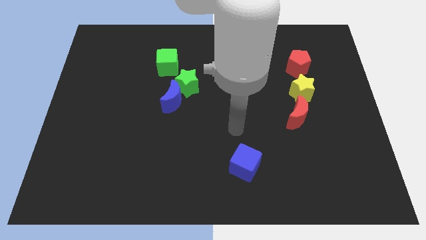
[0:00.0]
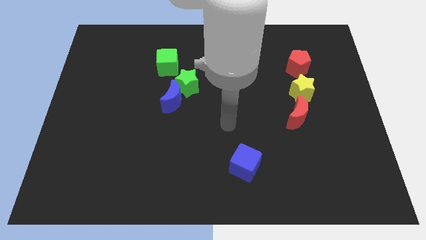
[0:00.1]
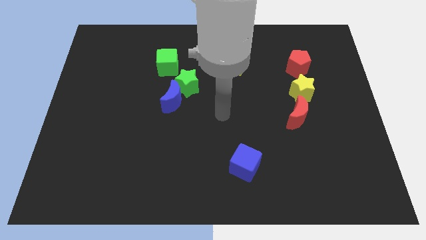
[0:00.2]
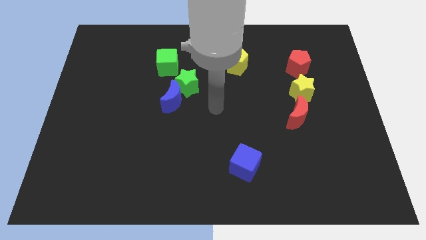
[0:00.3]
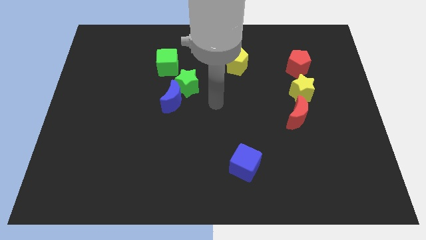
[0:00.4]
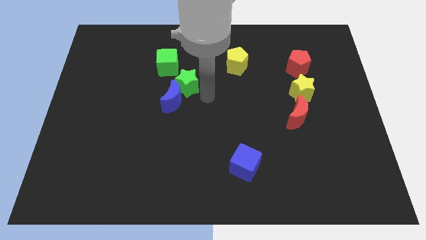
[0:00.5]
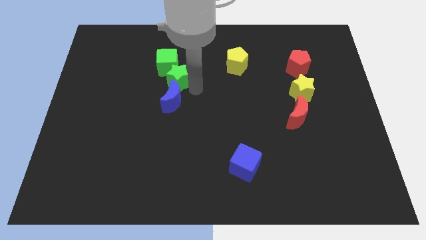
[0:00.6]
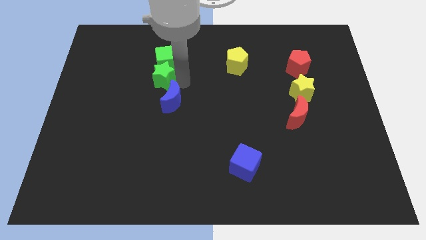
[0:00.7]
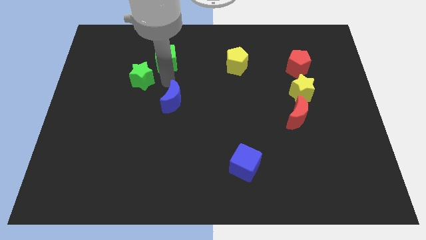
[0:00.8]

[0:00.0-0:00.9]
pull the blue moon apart from the green star

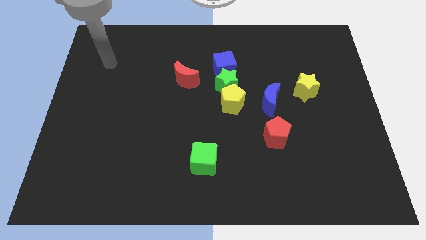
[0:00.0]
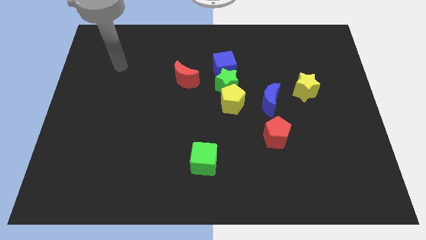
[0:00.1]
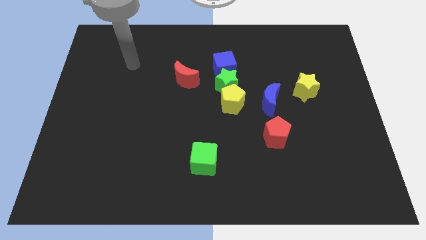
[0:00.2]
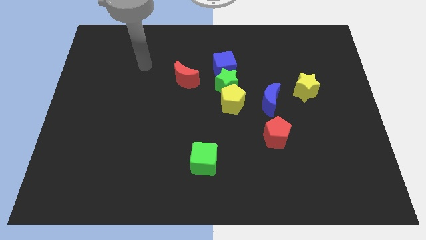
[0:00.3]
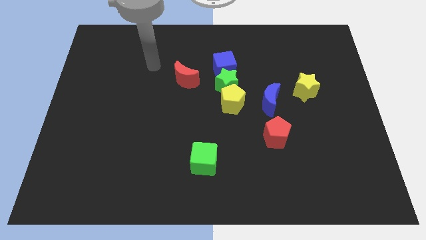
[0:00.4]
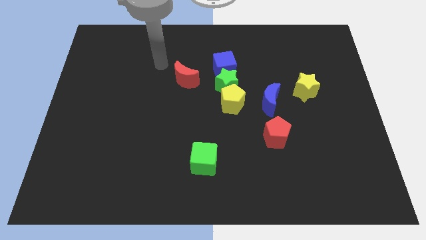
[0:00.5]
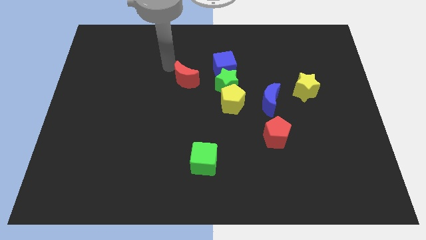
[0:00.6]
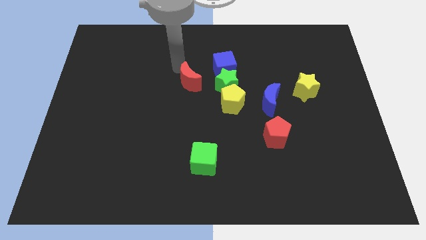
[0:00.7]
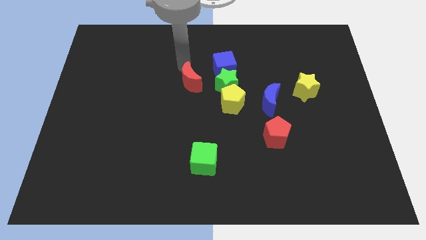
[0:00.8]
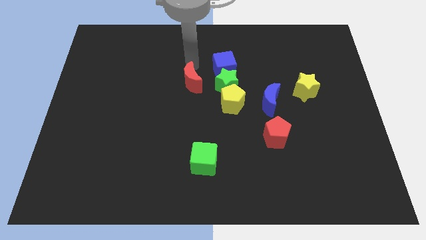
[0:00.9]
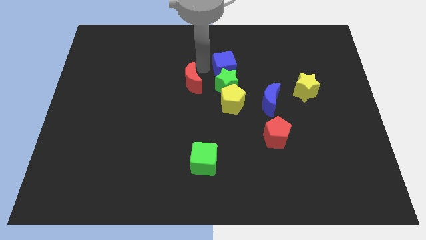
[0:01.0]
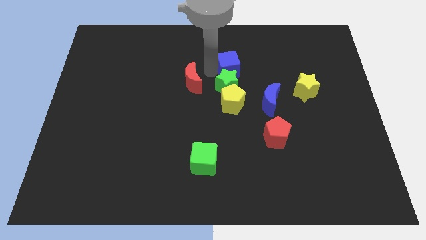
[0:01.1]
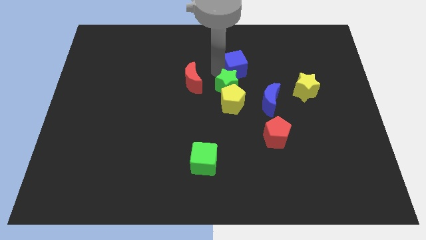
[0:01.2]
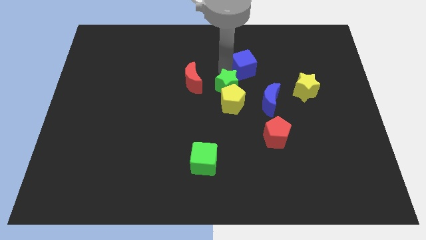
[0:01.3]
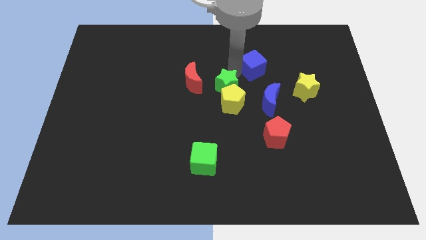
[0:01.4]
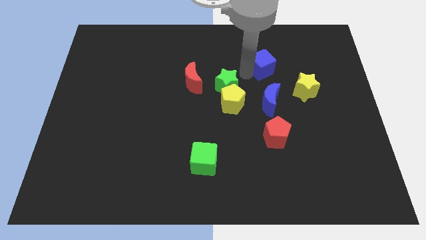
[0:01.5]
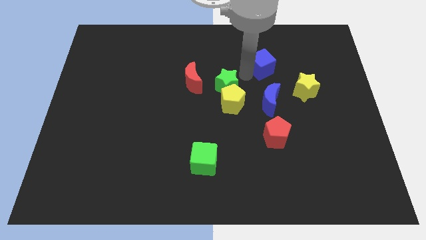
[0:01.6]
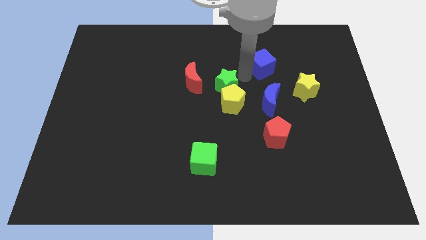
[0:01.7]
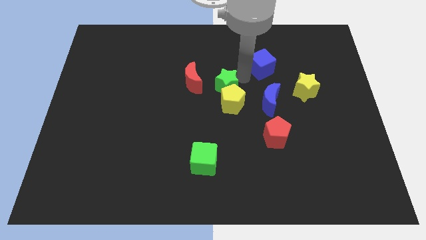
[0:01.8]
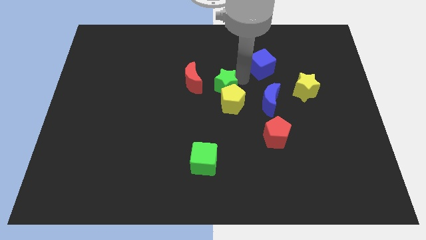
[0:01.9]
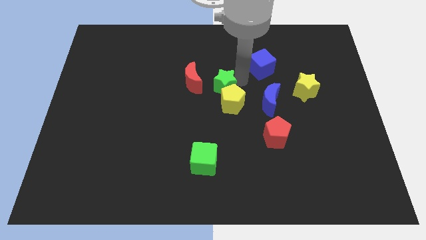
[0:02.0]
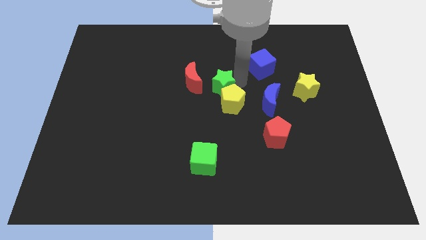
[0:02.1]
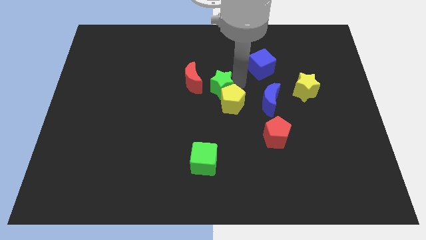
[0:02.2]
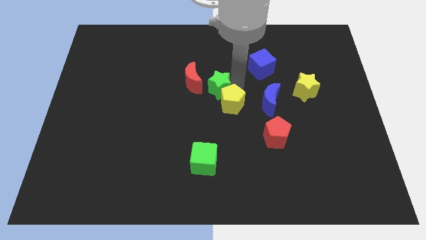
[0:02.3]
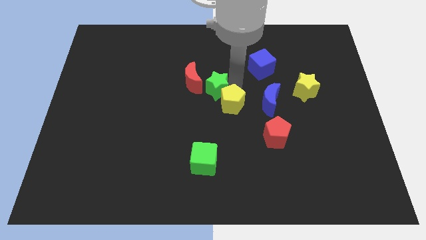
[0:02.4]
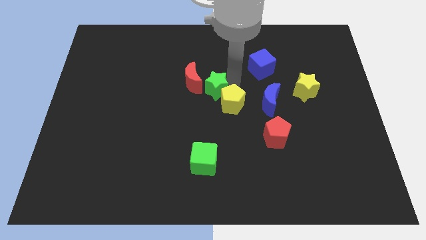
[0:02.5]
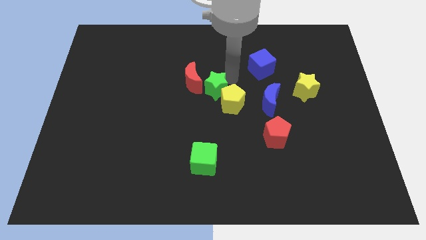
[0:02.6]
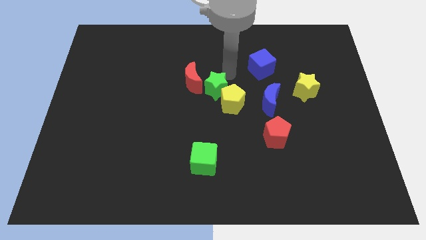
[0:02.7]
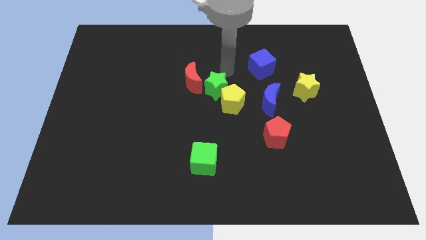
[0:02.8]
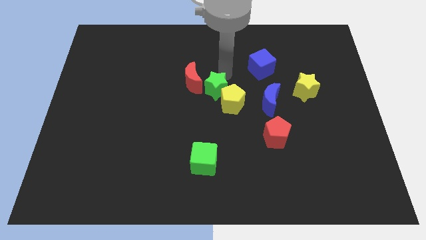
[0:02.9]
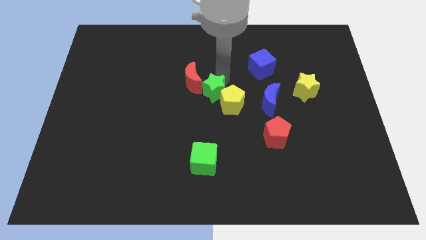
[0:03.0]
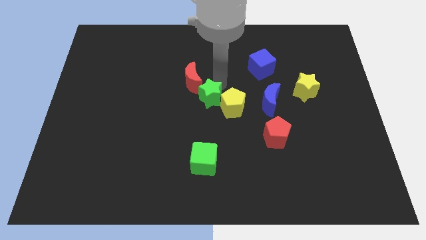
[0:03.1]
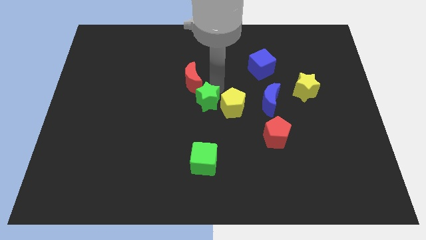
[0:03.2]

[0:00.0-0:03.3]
move the green star away from the yellow pentagon and blue cube

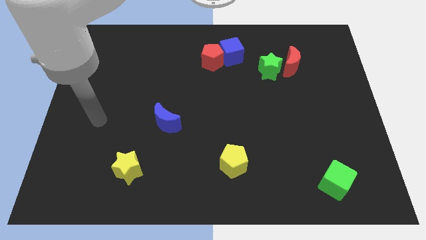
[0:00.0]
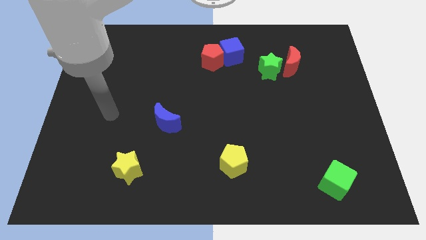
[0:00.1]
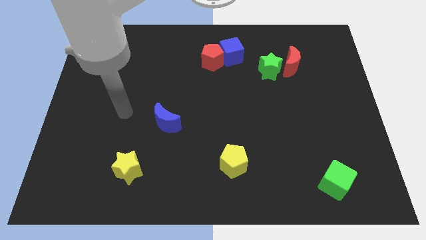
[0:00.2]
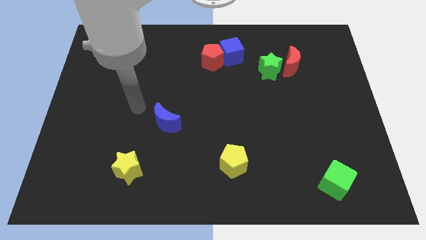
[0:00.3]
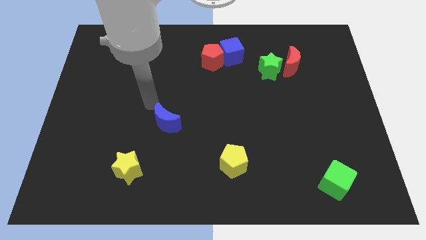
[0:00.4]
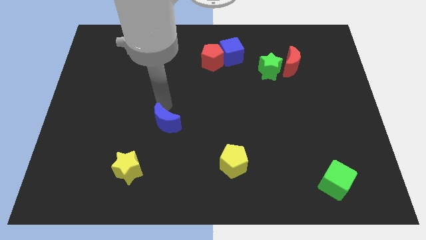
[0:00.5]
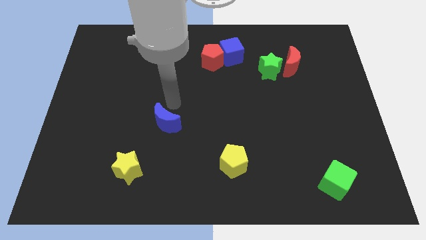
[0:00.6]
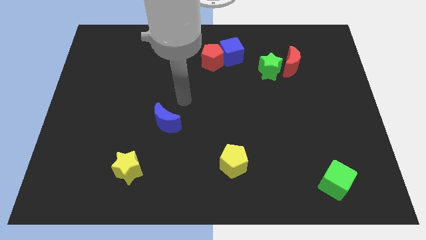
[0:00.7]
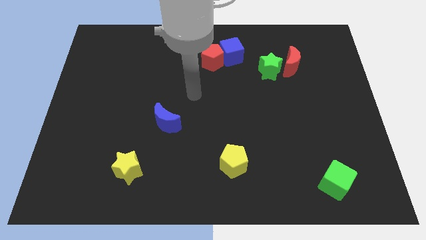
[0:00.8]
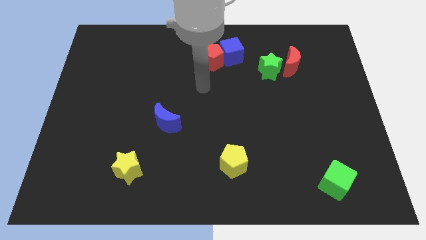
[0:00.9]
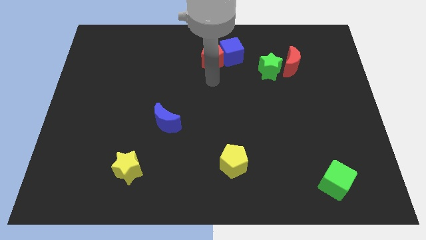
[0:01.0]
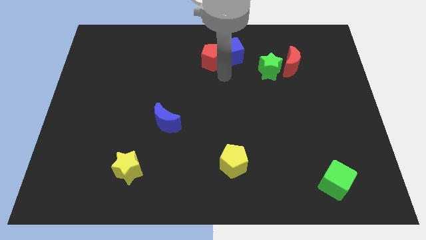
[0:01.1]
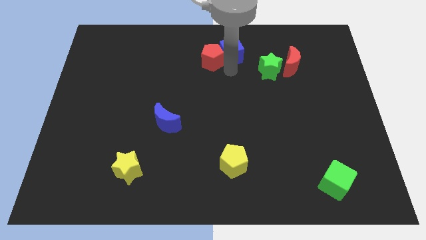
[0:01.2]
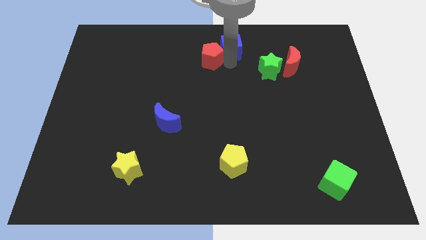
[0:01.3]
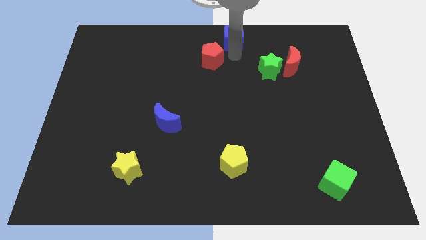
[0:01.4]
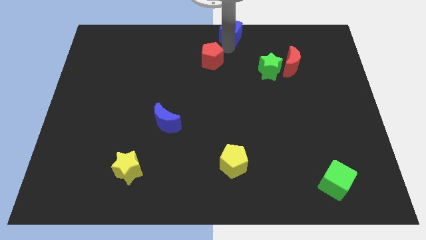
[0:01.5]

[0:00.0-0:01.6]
pull the red pentagon apart from the blue cube

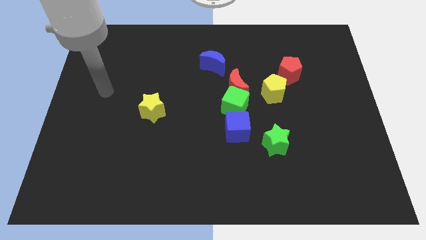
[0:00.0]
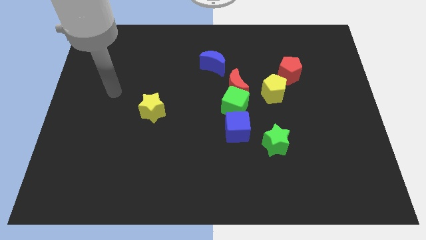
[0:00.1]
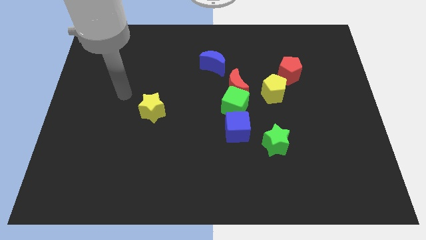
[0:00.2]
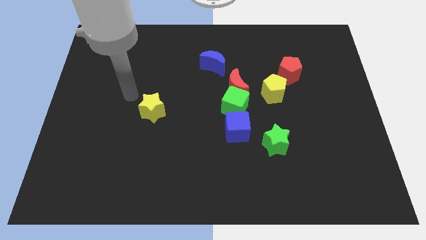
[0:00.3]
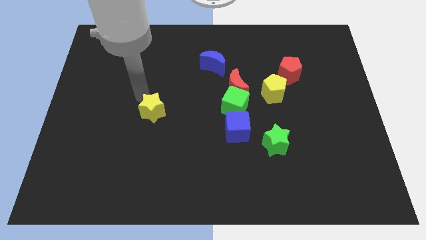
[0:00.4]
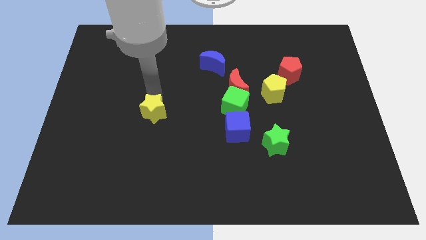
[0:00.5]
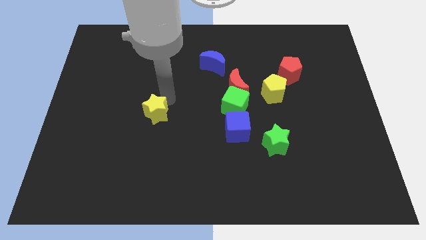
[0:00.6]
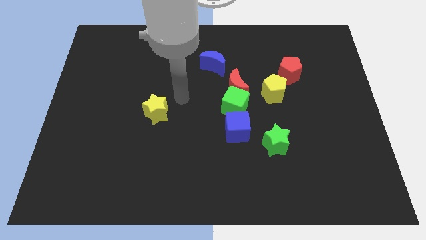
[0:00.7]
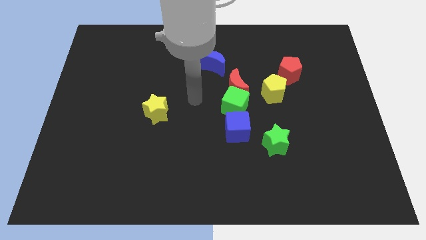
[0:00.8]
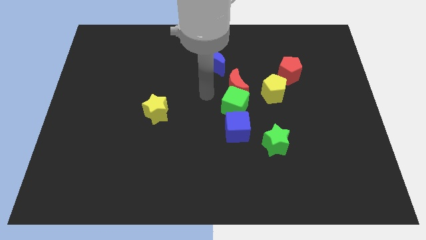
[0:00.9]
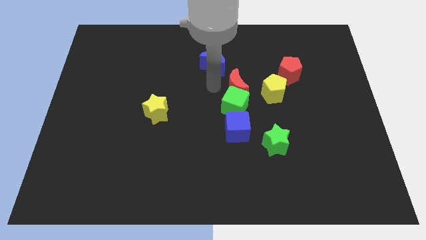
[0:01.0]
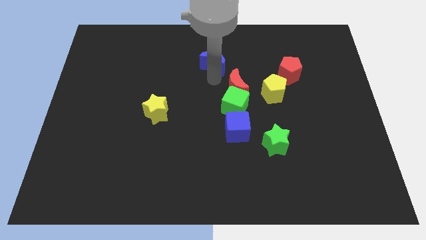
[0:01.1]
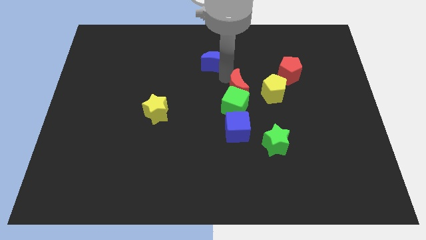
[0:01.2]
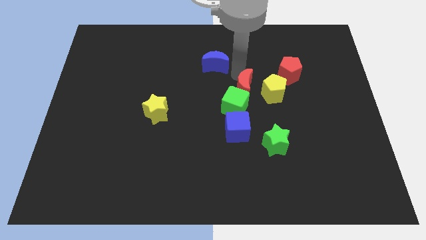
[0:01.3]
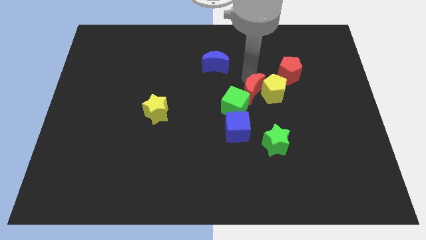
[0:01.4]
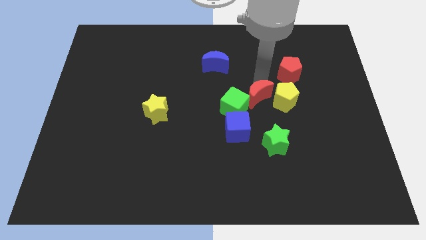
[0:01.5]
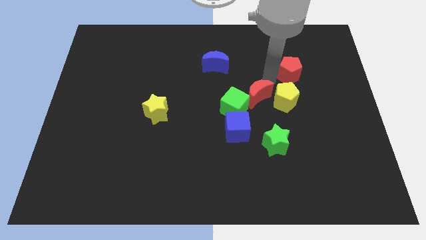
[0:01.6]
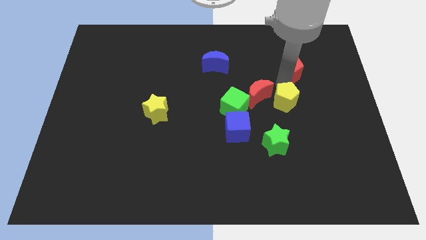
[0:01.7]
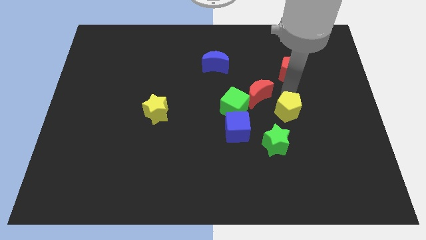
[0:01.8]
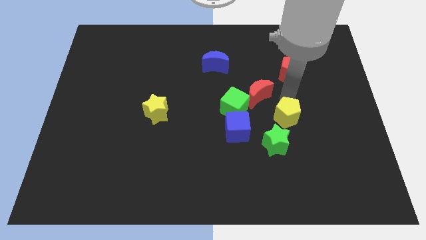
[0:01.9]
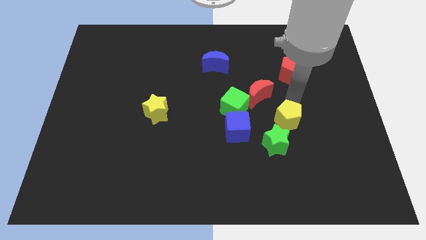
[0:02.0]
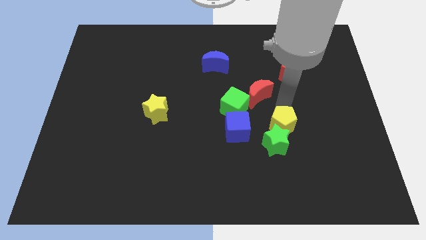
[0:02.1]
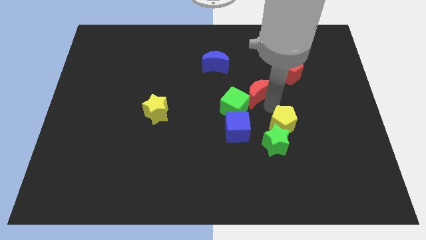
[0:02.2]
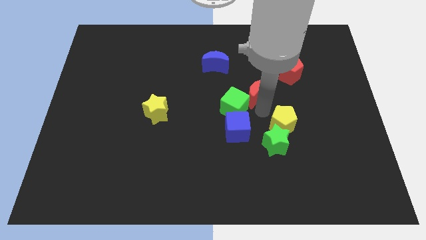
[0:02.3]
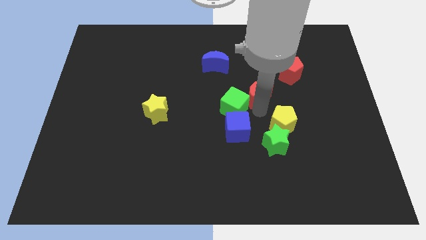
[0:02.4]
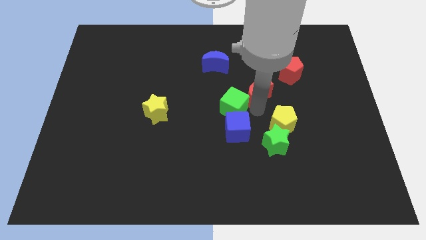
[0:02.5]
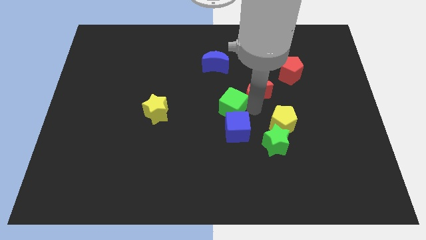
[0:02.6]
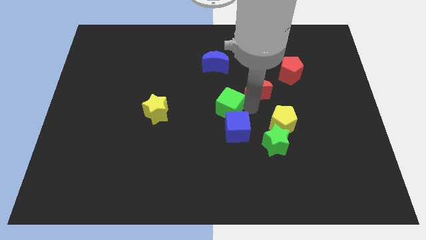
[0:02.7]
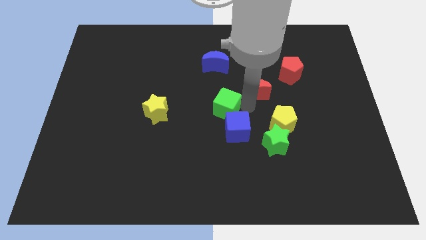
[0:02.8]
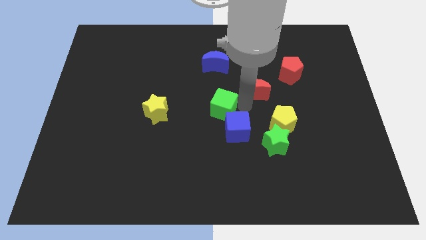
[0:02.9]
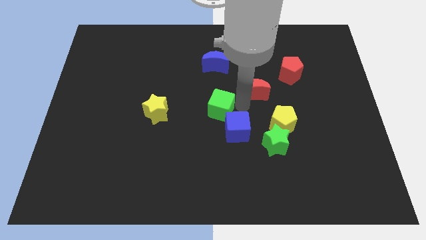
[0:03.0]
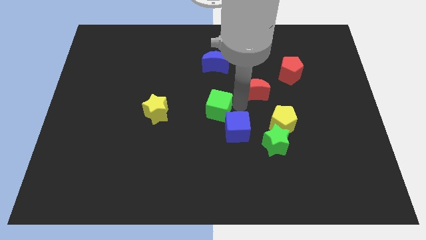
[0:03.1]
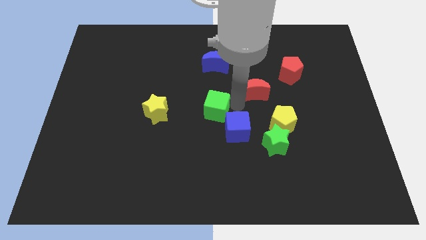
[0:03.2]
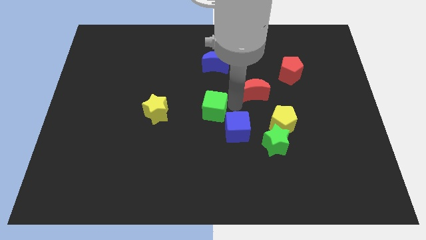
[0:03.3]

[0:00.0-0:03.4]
move the green cube away from the red moon, blue cube, and yellow pentagon

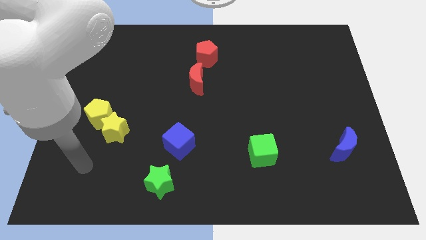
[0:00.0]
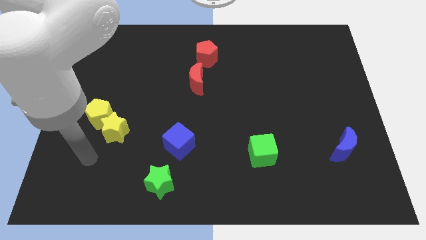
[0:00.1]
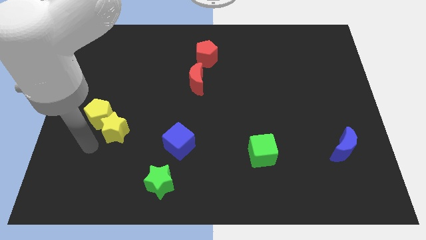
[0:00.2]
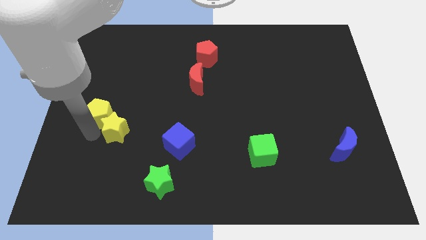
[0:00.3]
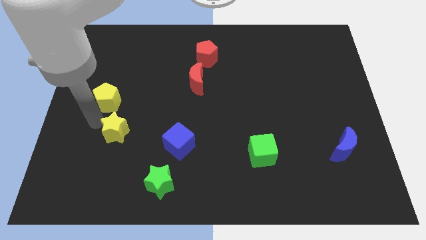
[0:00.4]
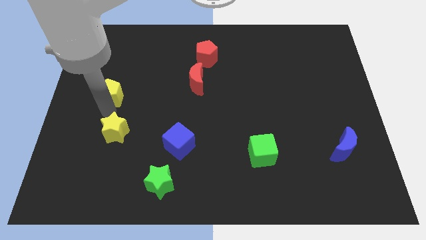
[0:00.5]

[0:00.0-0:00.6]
move the yellow star away from the yellow pentagon
